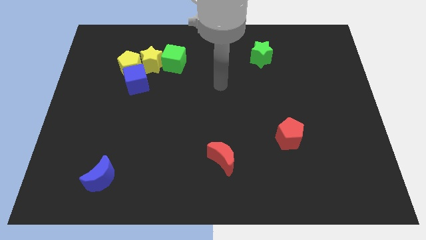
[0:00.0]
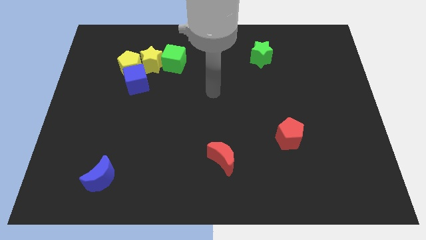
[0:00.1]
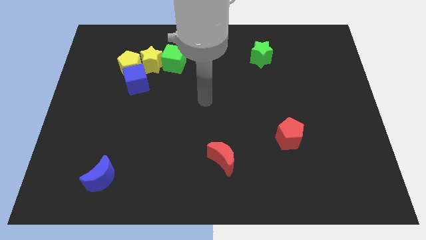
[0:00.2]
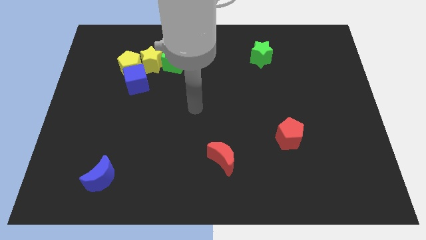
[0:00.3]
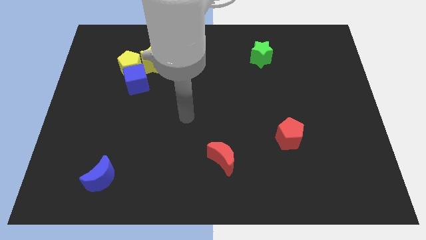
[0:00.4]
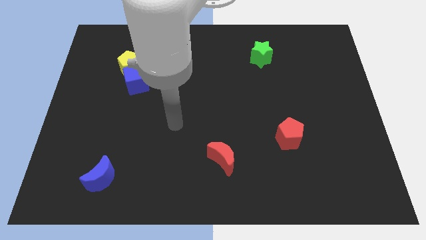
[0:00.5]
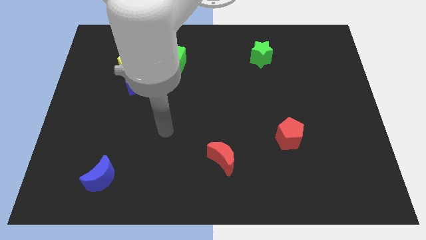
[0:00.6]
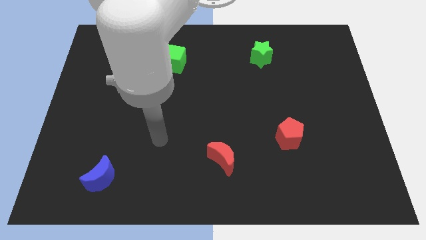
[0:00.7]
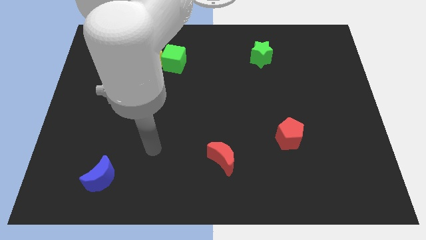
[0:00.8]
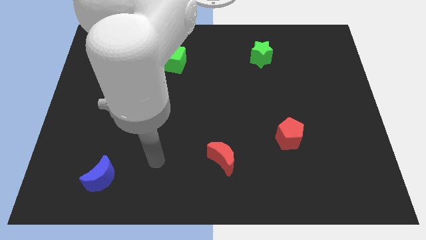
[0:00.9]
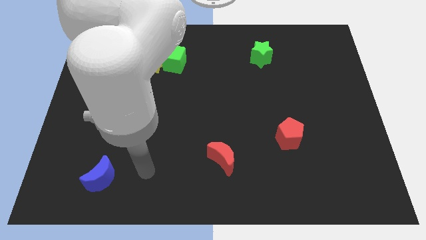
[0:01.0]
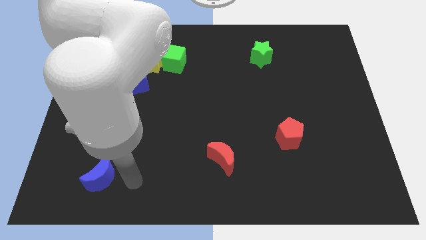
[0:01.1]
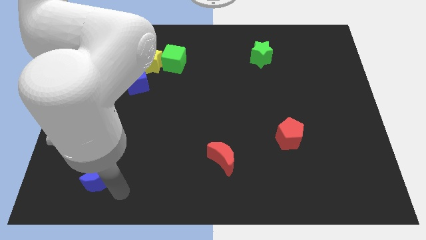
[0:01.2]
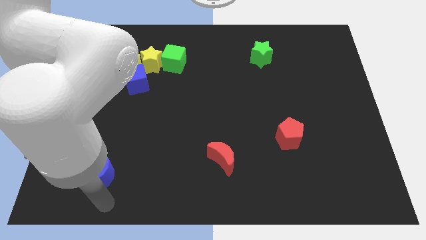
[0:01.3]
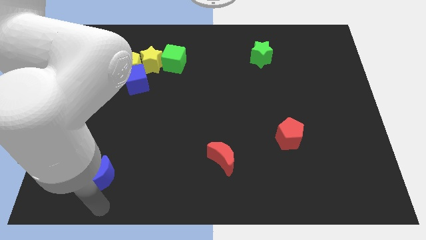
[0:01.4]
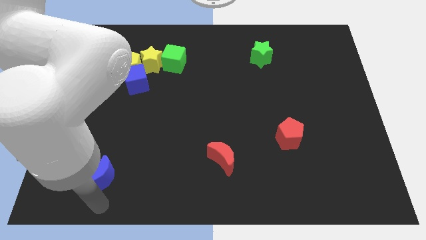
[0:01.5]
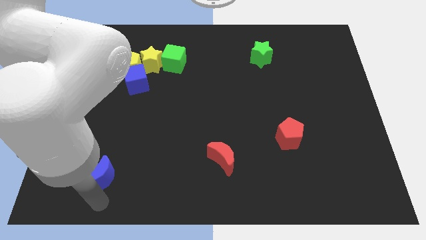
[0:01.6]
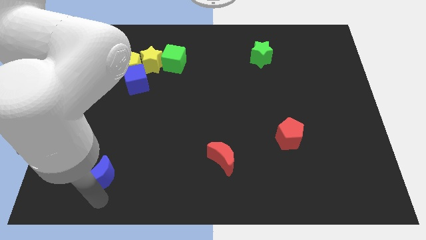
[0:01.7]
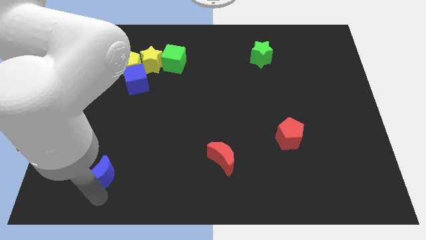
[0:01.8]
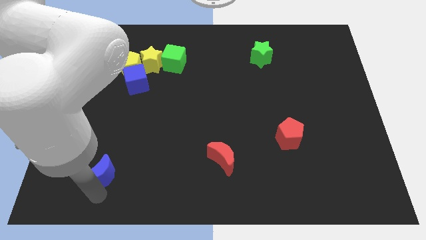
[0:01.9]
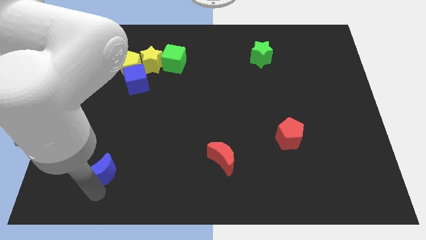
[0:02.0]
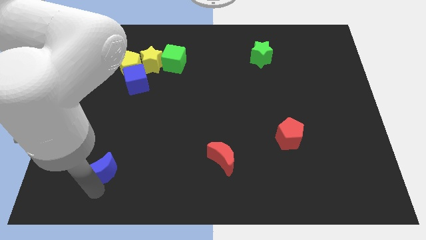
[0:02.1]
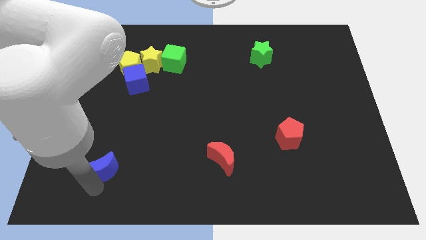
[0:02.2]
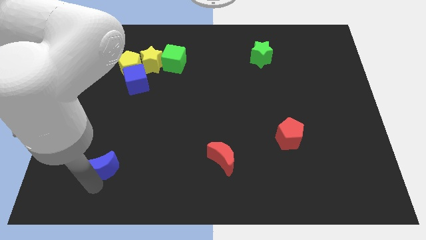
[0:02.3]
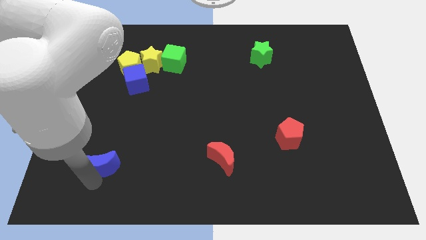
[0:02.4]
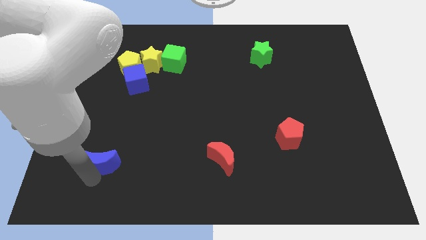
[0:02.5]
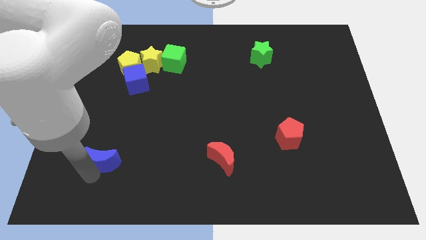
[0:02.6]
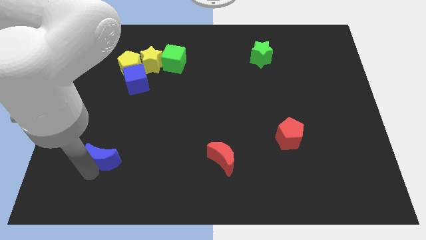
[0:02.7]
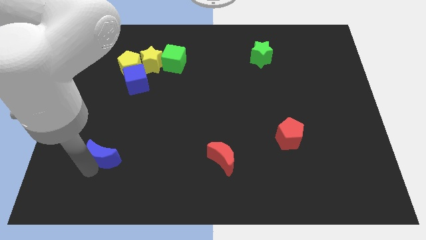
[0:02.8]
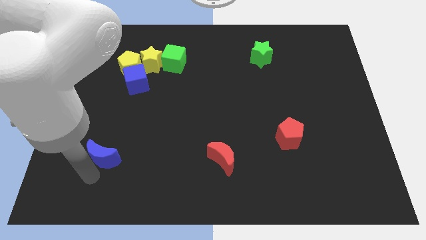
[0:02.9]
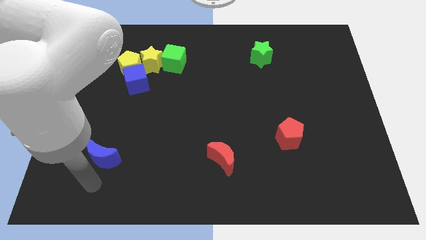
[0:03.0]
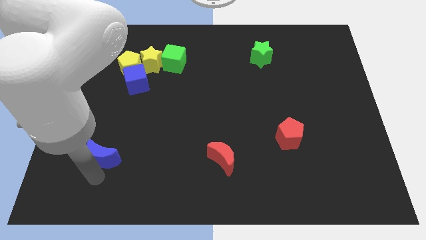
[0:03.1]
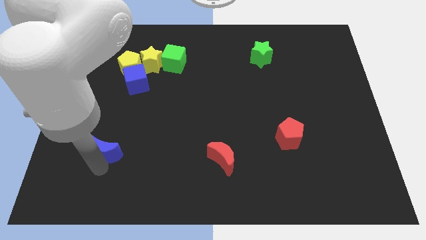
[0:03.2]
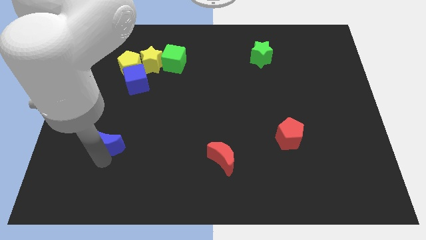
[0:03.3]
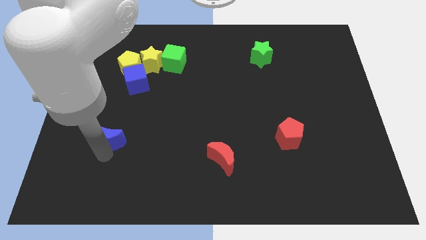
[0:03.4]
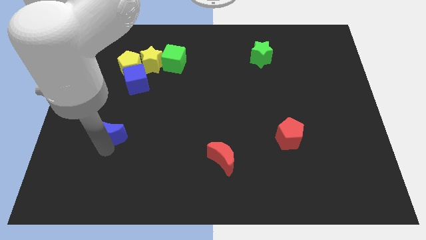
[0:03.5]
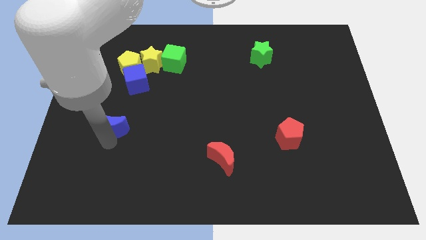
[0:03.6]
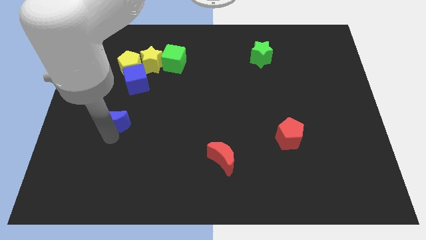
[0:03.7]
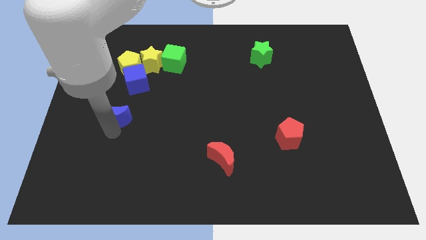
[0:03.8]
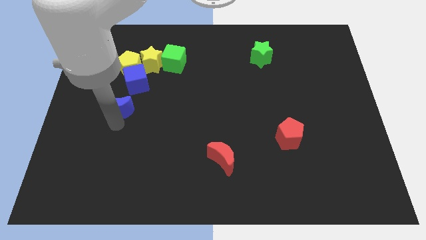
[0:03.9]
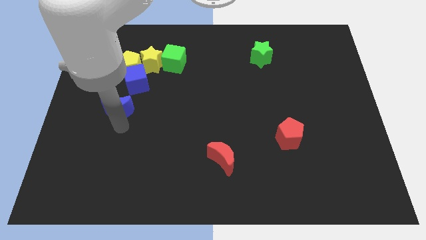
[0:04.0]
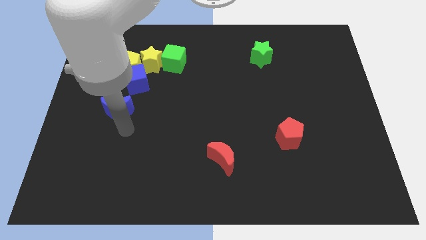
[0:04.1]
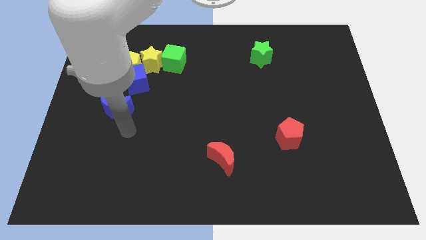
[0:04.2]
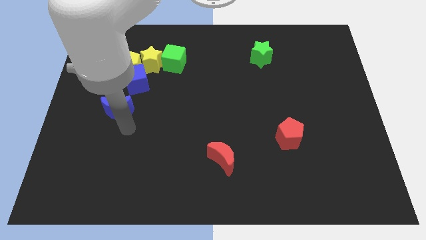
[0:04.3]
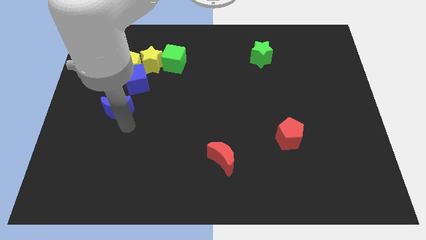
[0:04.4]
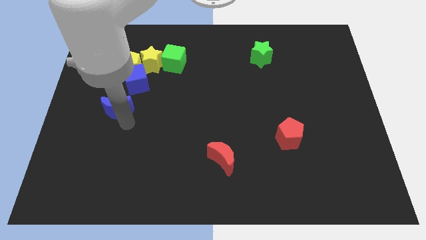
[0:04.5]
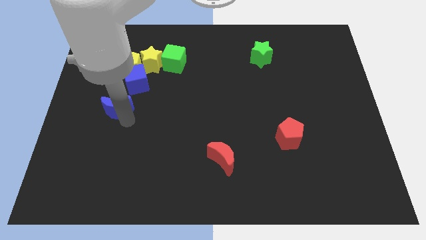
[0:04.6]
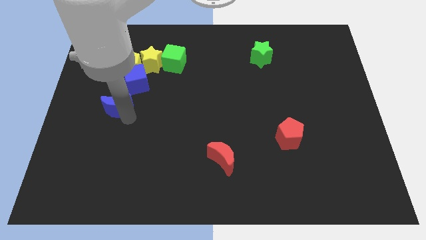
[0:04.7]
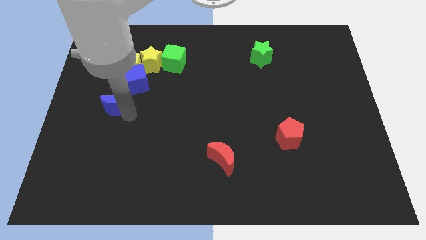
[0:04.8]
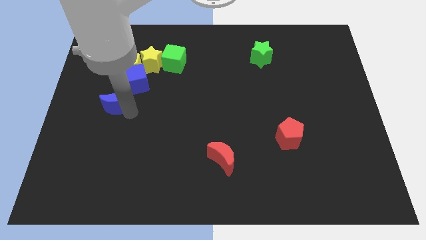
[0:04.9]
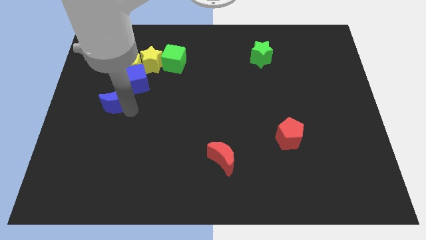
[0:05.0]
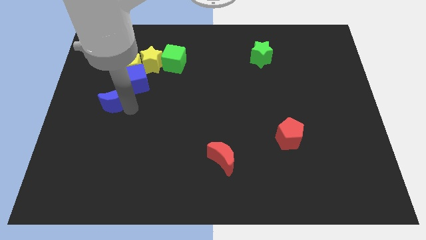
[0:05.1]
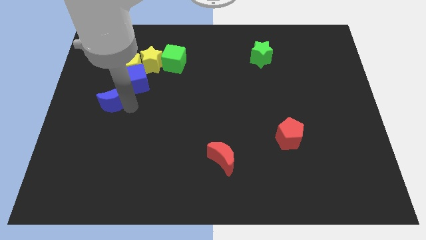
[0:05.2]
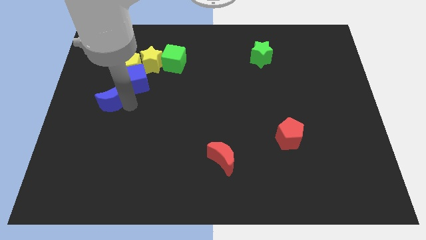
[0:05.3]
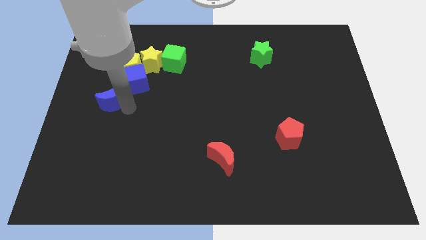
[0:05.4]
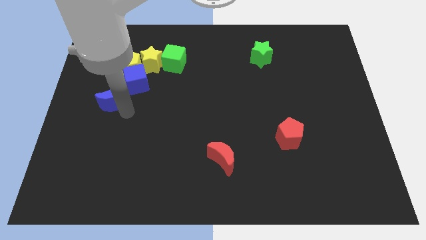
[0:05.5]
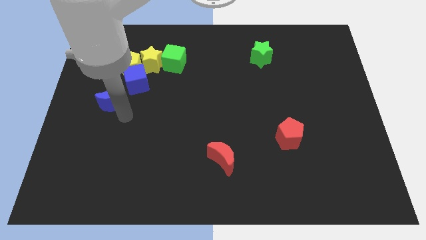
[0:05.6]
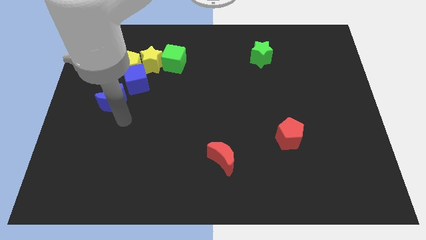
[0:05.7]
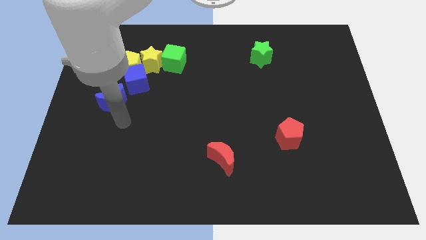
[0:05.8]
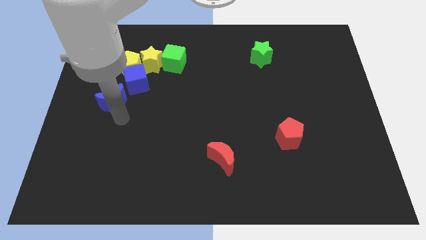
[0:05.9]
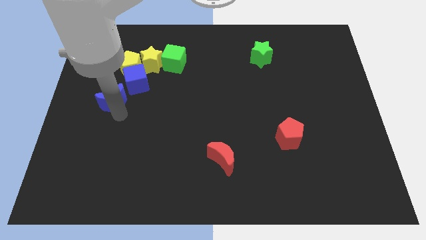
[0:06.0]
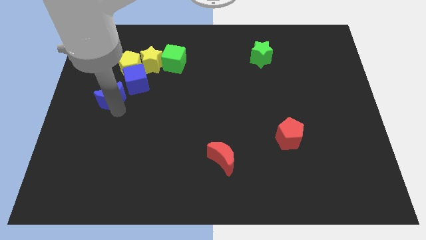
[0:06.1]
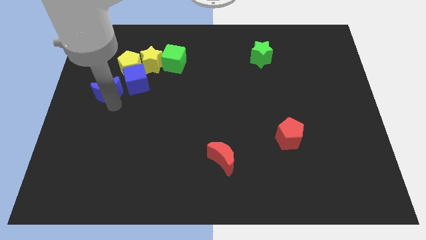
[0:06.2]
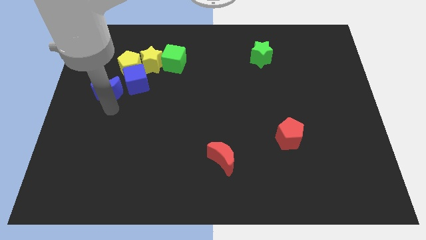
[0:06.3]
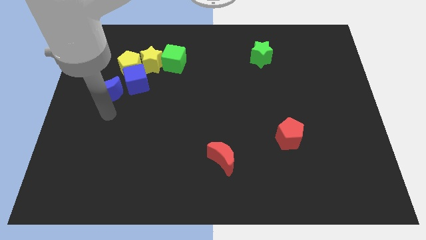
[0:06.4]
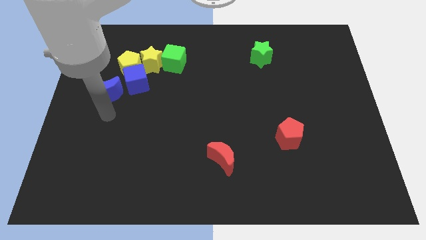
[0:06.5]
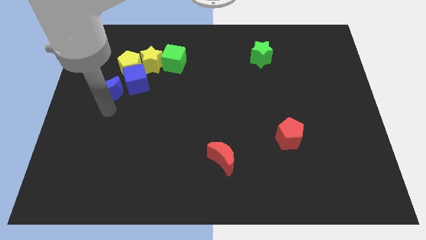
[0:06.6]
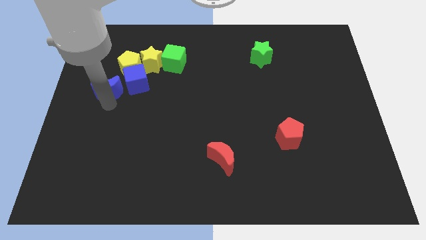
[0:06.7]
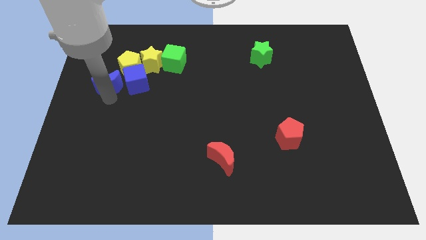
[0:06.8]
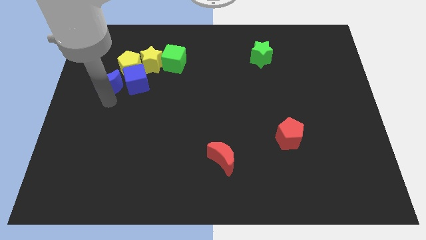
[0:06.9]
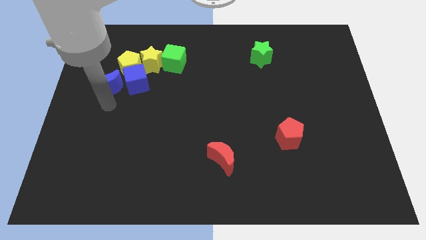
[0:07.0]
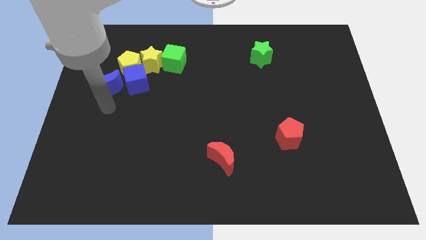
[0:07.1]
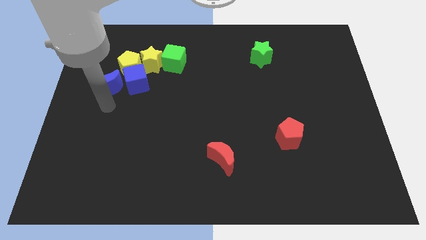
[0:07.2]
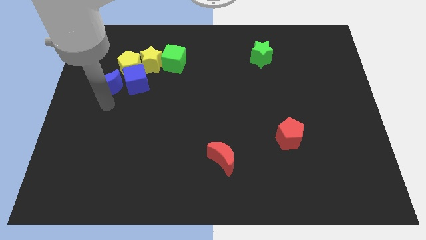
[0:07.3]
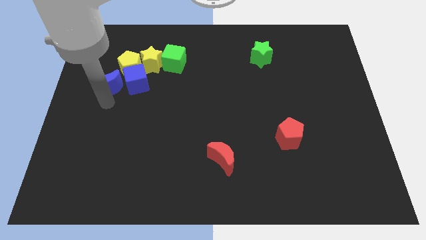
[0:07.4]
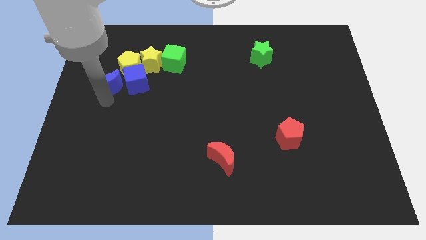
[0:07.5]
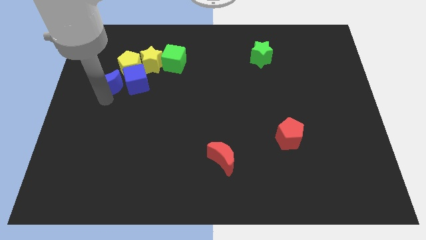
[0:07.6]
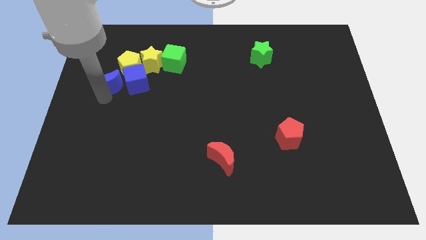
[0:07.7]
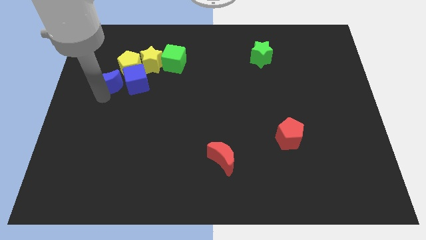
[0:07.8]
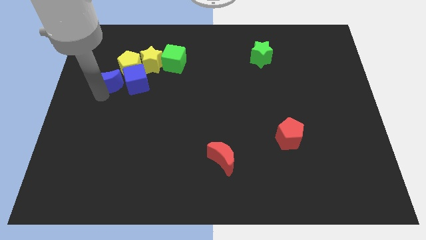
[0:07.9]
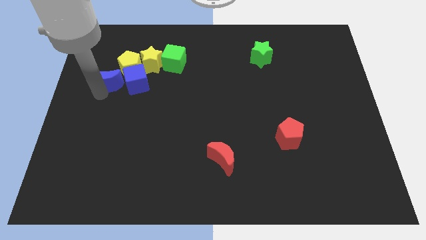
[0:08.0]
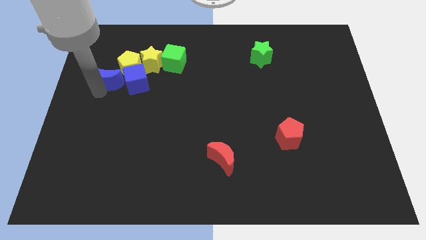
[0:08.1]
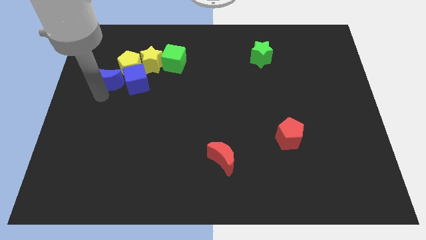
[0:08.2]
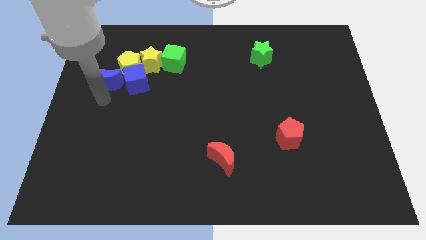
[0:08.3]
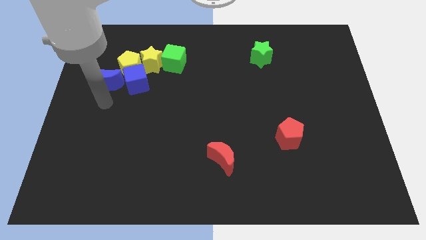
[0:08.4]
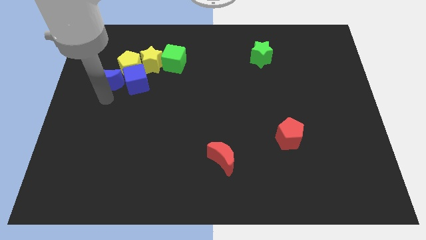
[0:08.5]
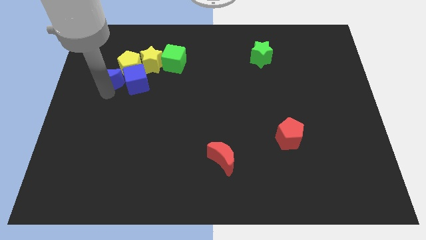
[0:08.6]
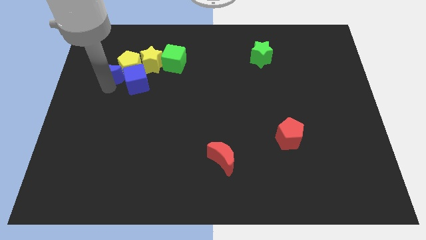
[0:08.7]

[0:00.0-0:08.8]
move the blue moon left of the yellow star
